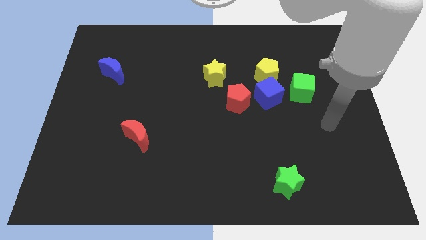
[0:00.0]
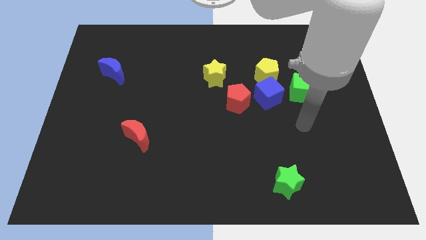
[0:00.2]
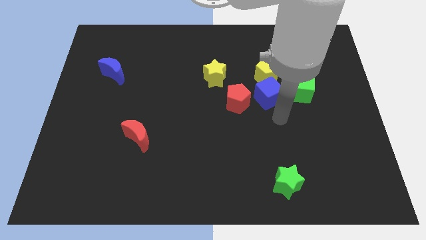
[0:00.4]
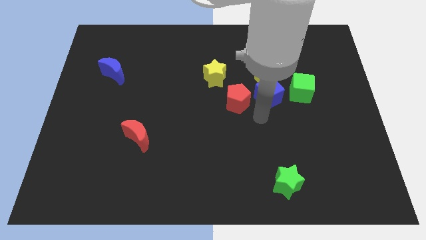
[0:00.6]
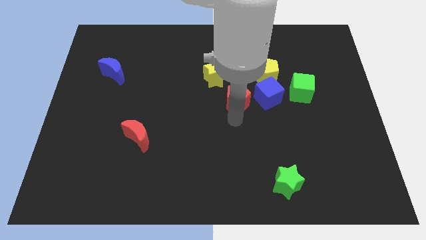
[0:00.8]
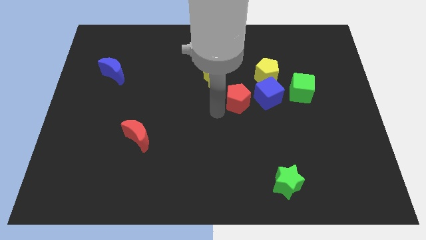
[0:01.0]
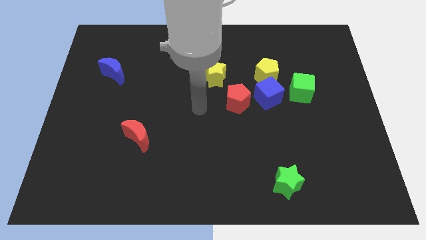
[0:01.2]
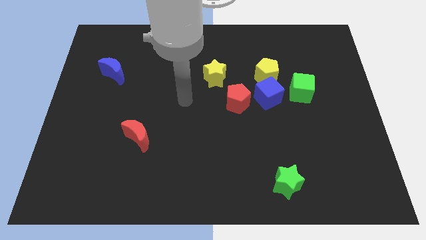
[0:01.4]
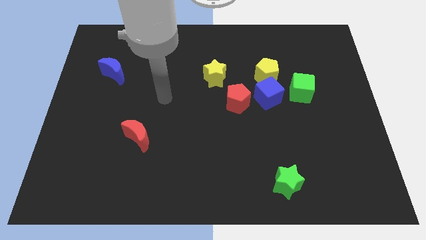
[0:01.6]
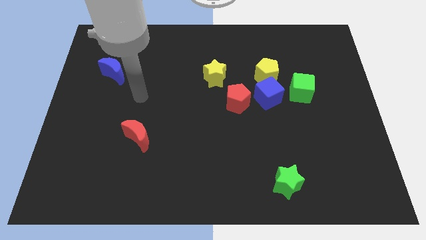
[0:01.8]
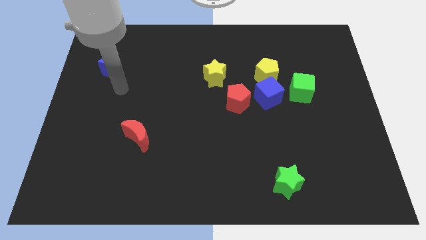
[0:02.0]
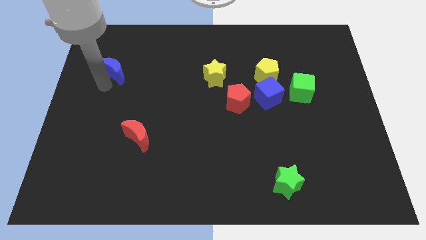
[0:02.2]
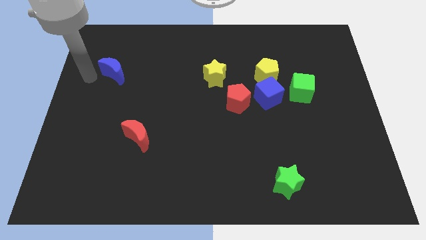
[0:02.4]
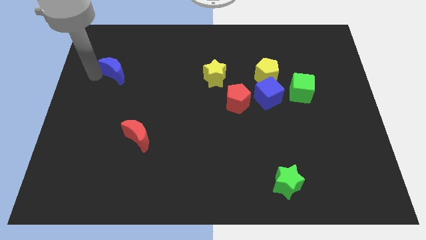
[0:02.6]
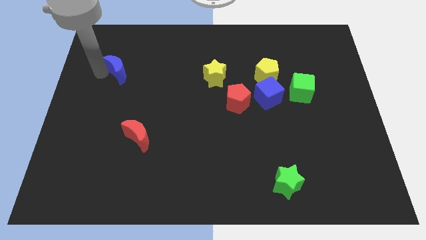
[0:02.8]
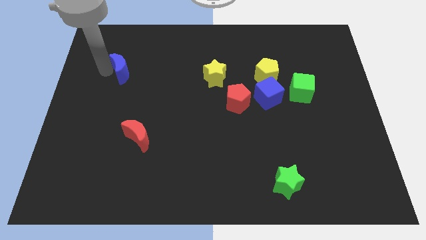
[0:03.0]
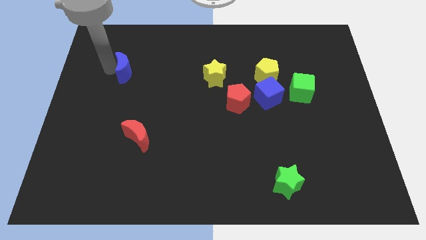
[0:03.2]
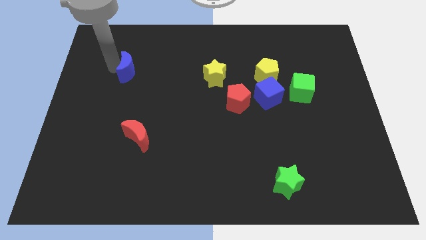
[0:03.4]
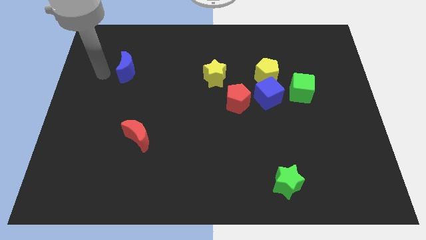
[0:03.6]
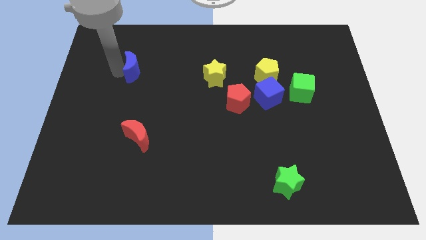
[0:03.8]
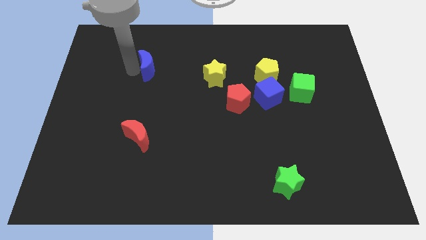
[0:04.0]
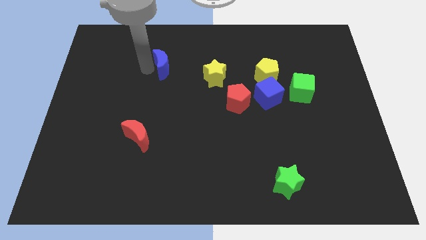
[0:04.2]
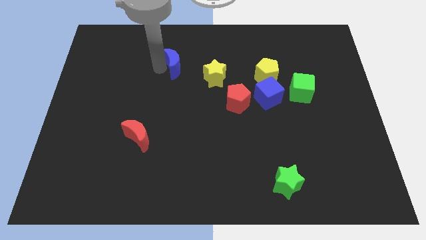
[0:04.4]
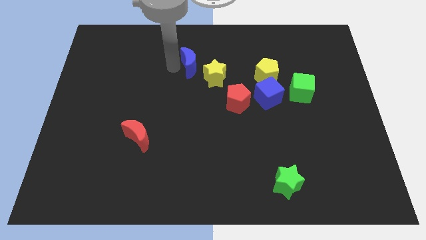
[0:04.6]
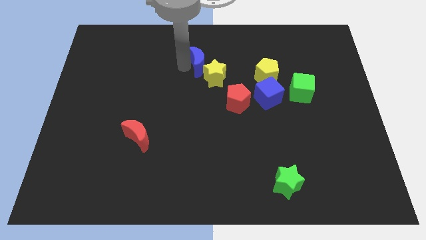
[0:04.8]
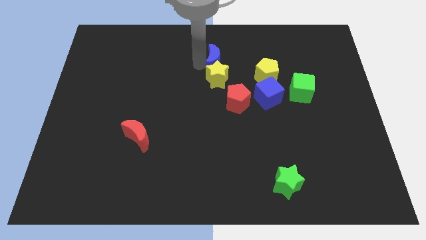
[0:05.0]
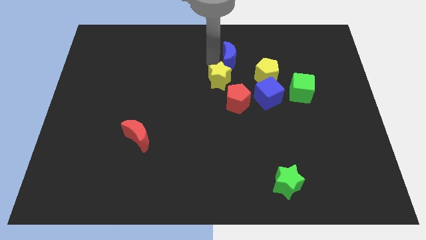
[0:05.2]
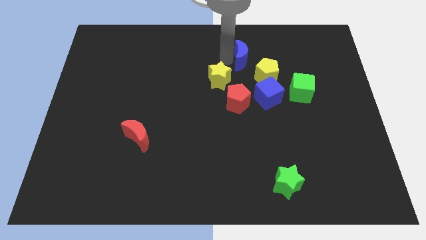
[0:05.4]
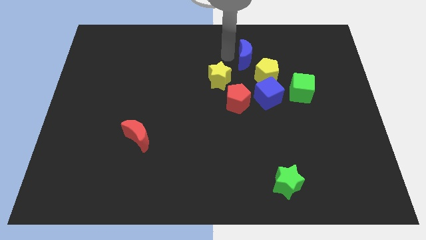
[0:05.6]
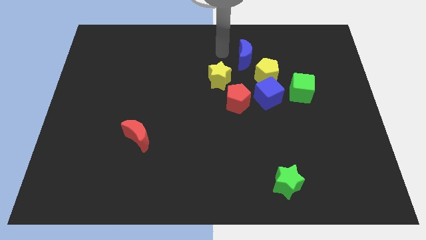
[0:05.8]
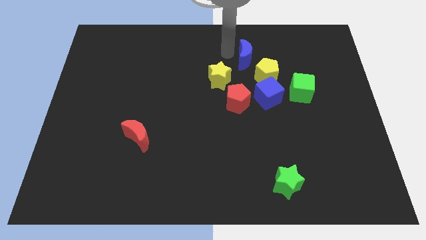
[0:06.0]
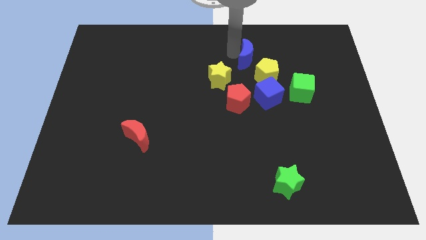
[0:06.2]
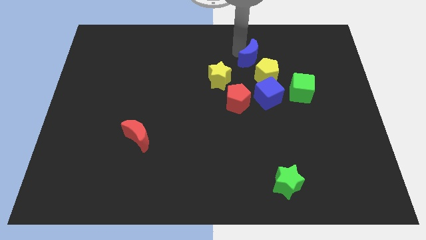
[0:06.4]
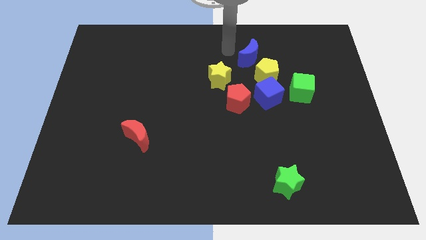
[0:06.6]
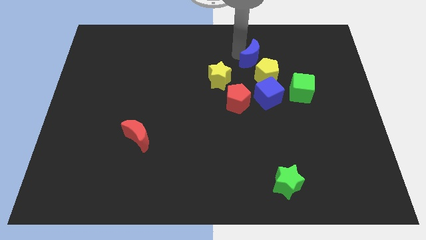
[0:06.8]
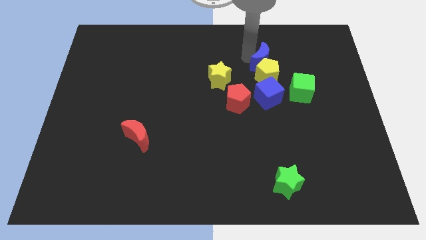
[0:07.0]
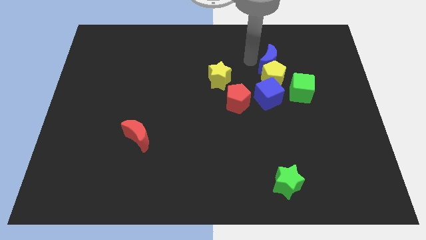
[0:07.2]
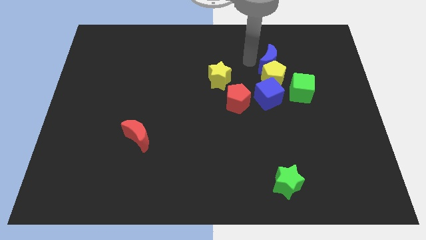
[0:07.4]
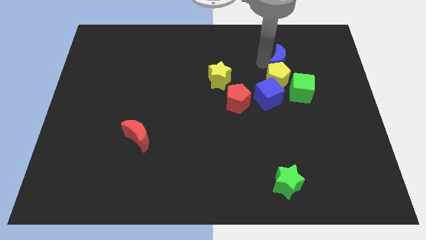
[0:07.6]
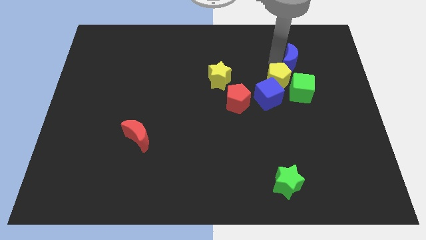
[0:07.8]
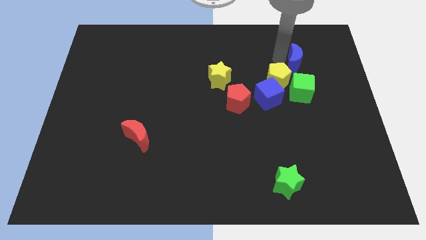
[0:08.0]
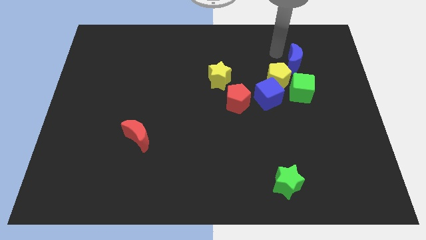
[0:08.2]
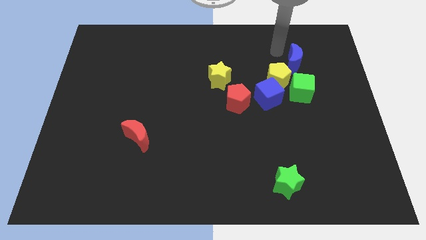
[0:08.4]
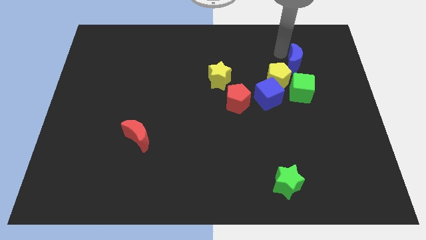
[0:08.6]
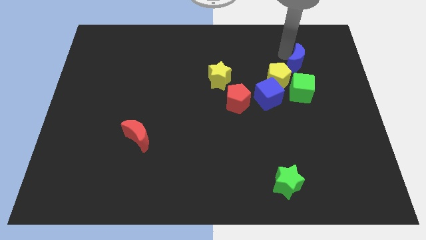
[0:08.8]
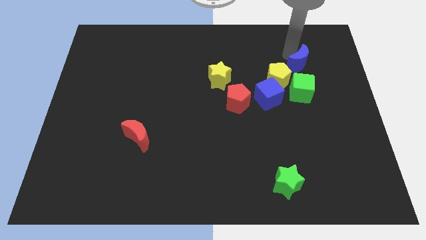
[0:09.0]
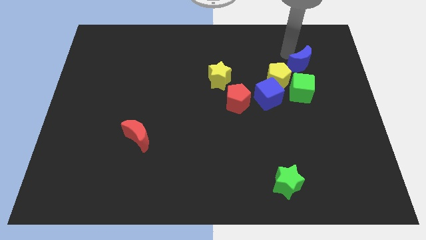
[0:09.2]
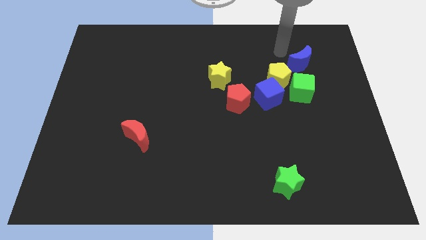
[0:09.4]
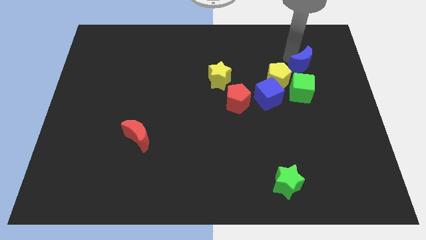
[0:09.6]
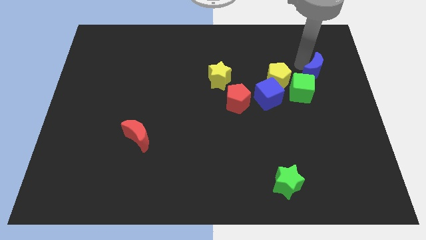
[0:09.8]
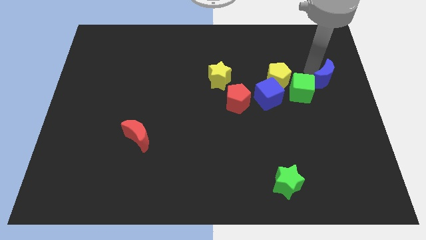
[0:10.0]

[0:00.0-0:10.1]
push the blue moon to the right side of the board

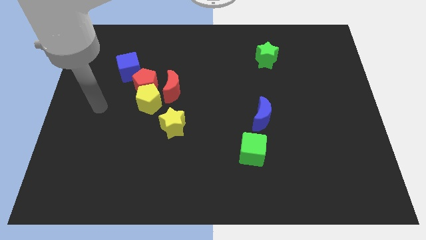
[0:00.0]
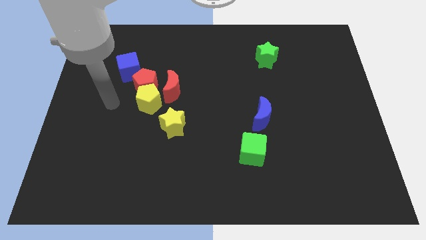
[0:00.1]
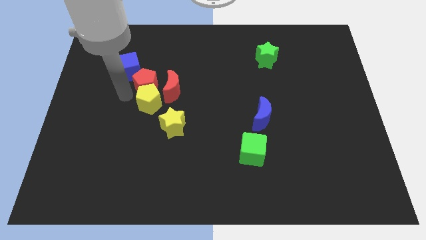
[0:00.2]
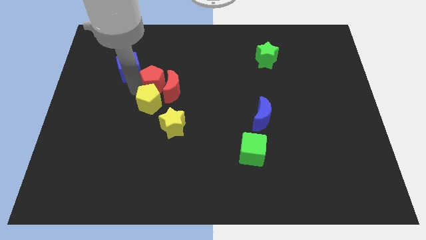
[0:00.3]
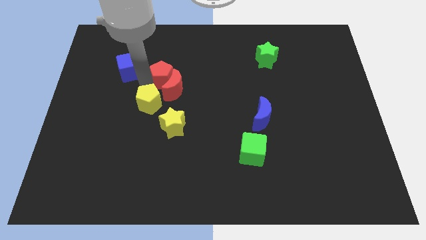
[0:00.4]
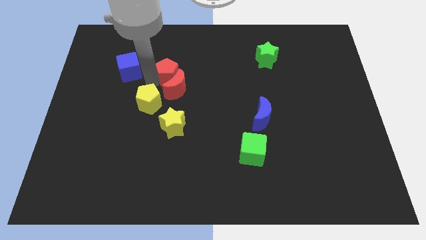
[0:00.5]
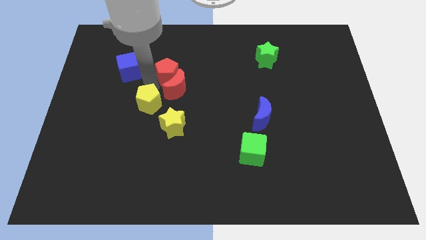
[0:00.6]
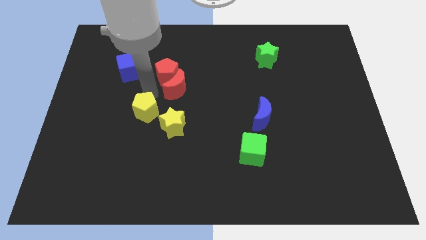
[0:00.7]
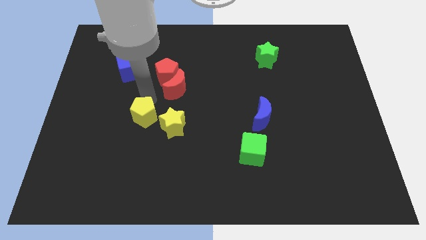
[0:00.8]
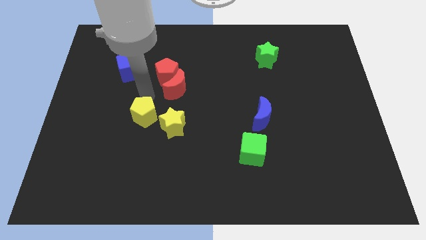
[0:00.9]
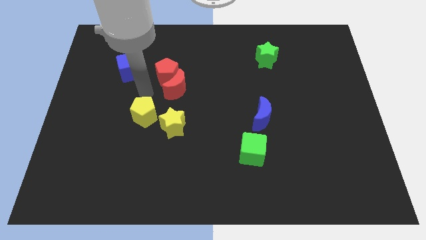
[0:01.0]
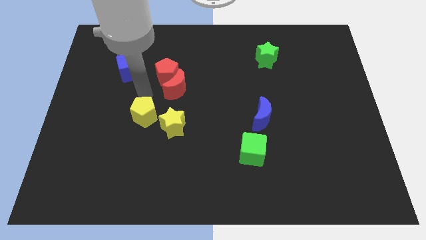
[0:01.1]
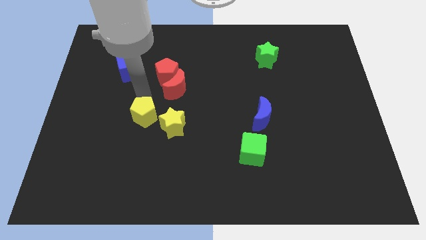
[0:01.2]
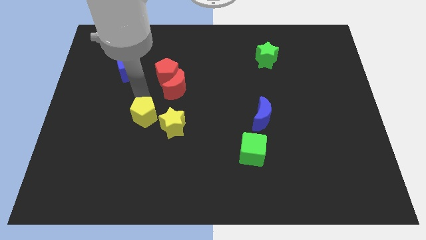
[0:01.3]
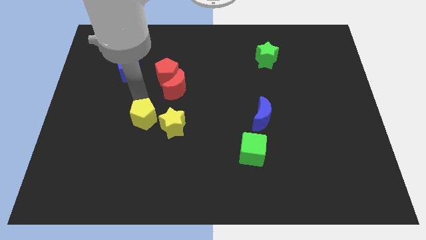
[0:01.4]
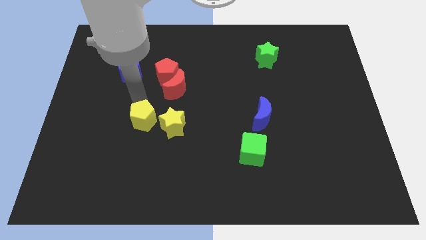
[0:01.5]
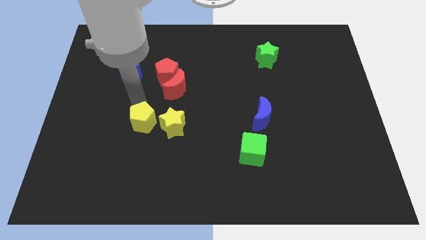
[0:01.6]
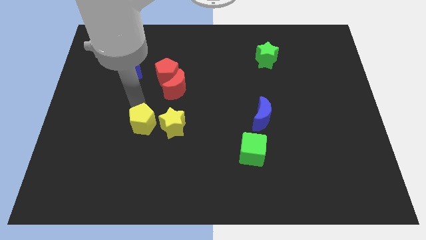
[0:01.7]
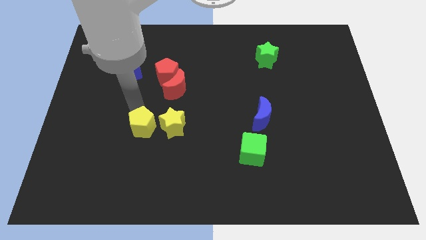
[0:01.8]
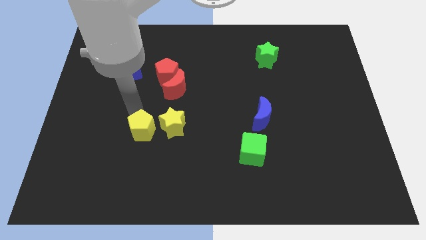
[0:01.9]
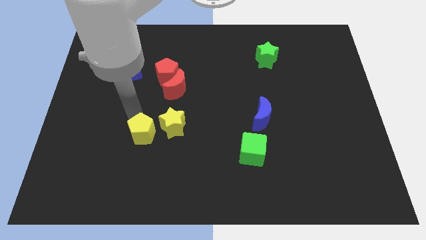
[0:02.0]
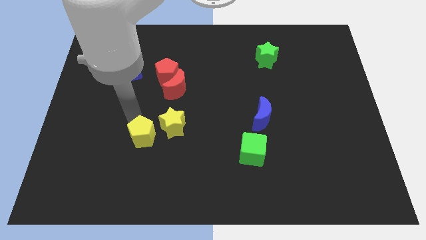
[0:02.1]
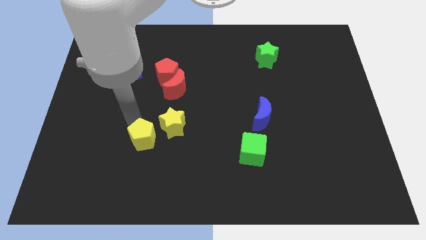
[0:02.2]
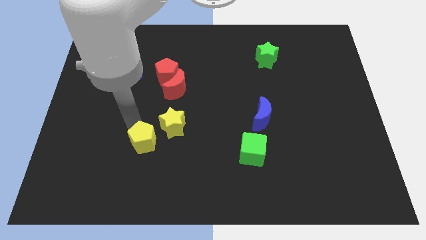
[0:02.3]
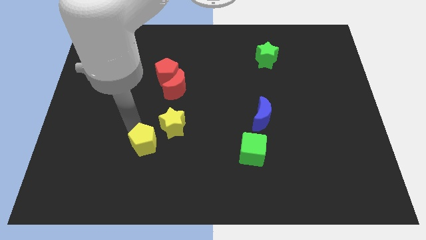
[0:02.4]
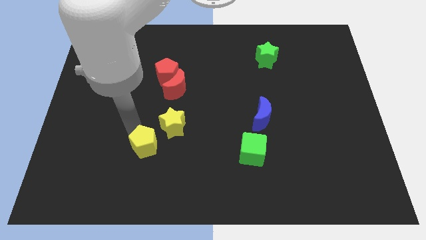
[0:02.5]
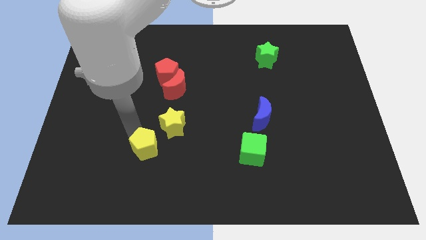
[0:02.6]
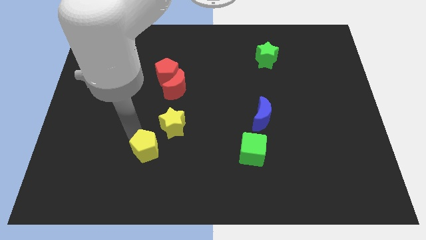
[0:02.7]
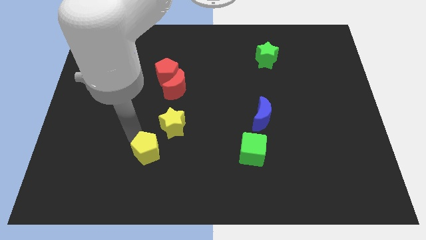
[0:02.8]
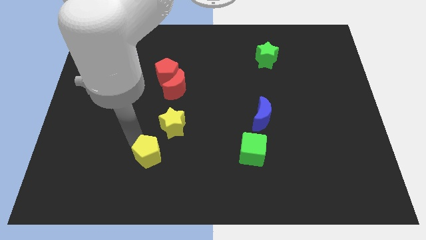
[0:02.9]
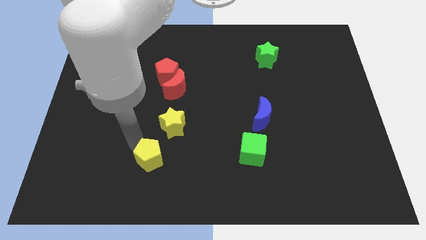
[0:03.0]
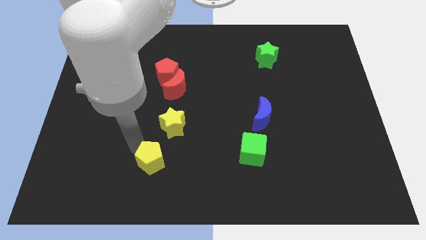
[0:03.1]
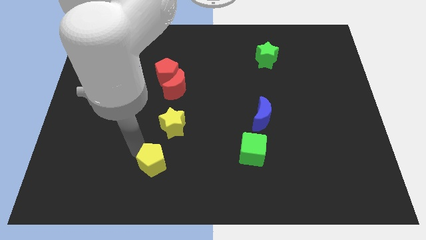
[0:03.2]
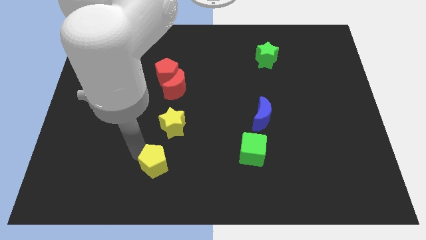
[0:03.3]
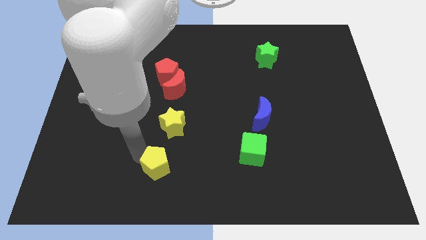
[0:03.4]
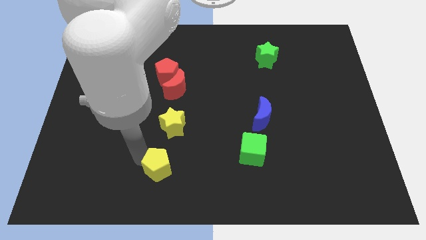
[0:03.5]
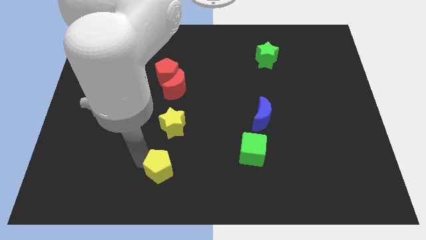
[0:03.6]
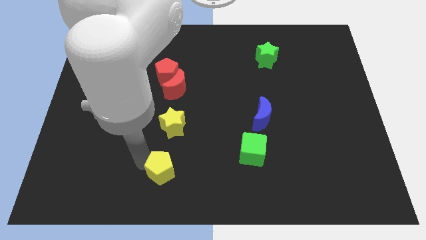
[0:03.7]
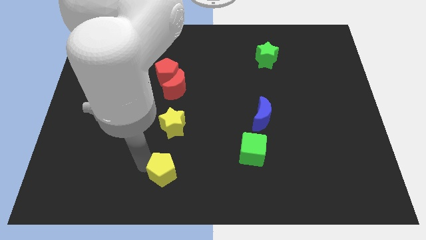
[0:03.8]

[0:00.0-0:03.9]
move the yellow pentagon to the bottom
